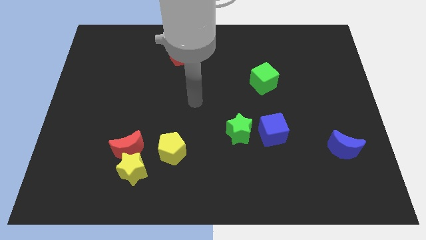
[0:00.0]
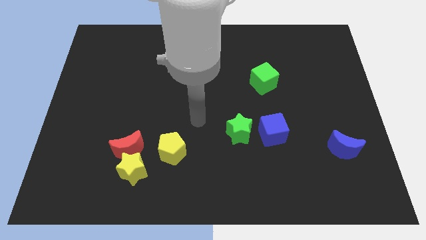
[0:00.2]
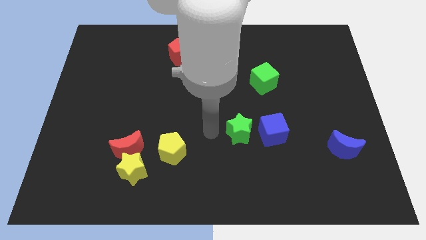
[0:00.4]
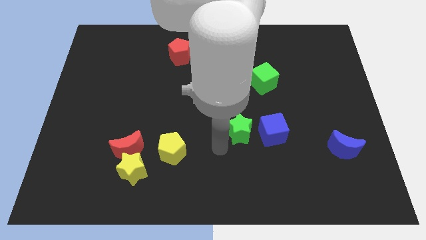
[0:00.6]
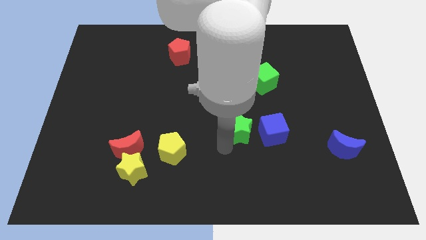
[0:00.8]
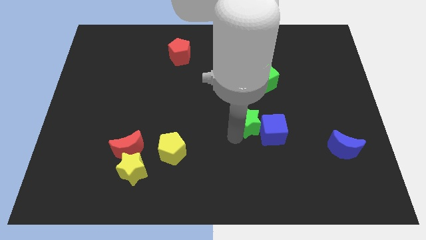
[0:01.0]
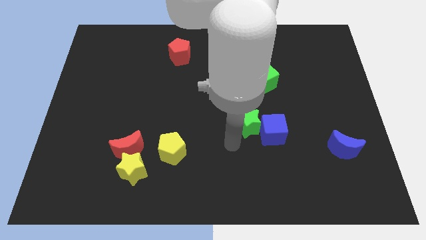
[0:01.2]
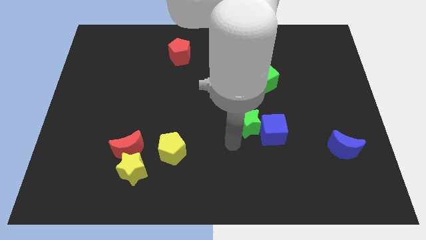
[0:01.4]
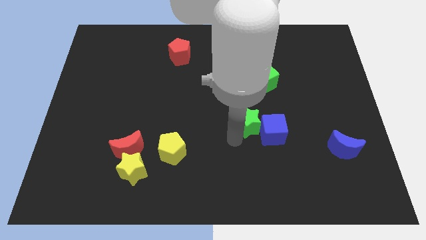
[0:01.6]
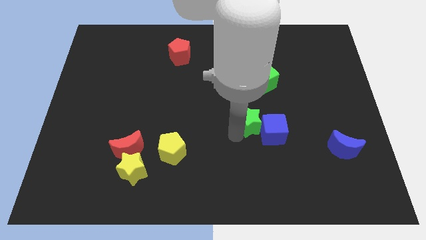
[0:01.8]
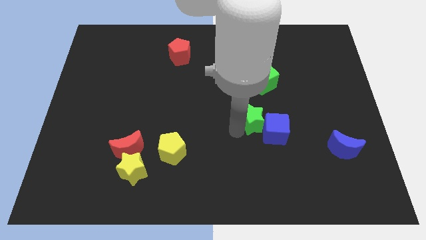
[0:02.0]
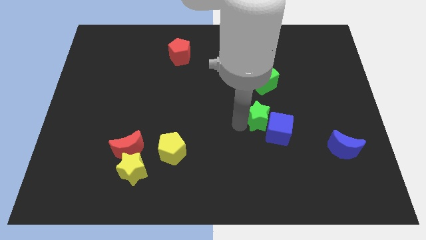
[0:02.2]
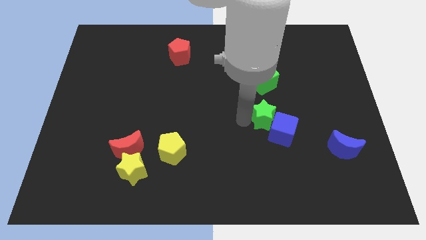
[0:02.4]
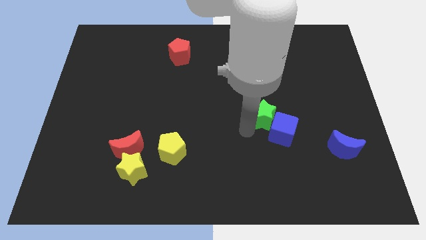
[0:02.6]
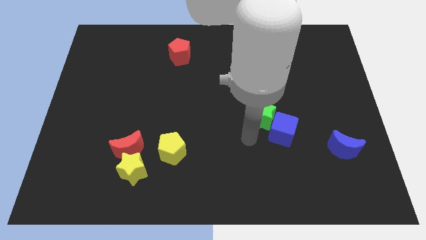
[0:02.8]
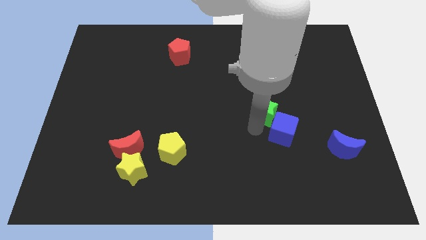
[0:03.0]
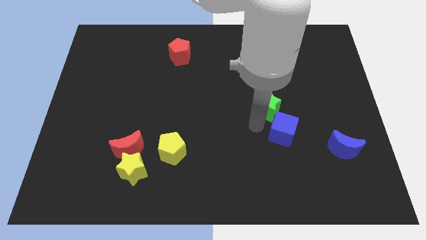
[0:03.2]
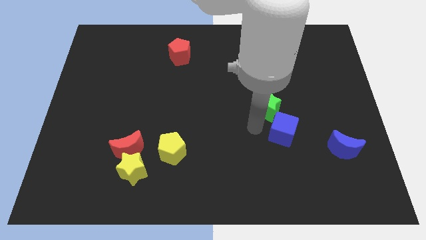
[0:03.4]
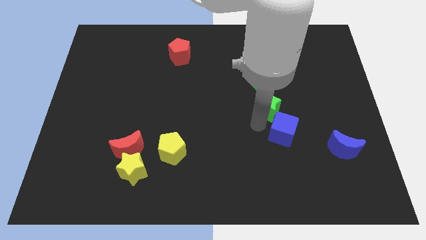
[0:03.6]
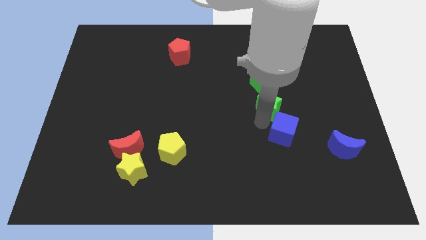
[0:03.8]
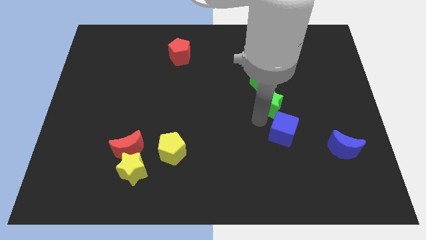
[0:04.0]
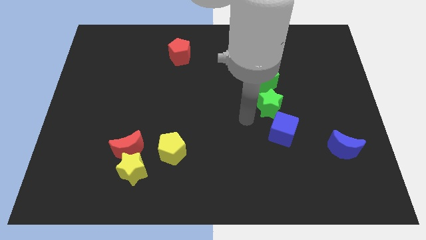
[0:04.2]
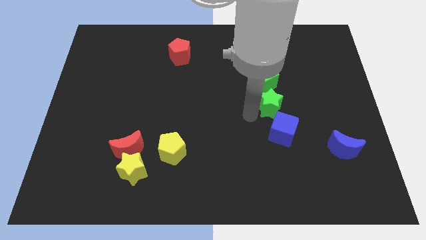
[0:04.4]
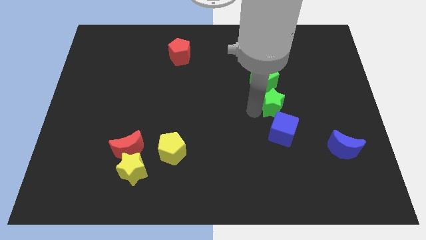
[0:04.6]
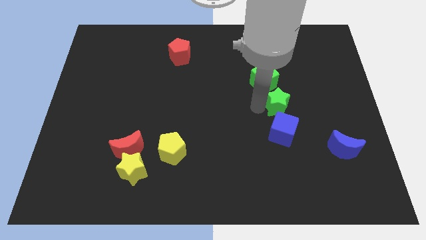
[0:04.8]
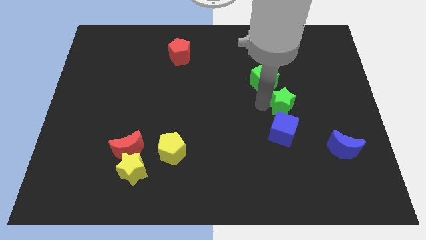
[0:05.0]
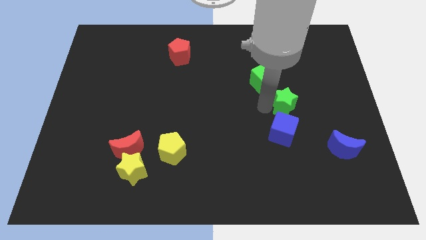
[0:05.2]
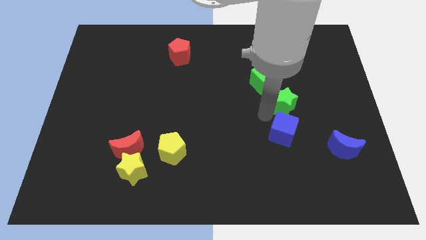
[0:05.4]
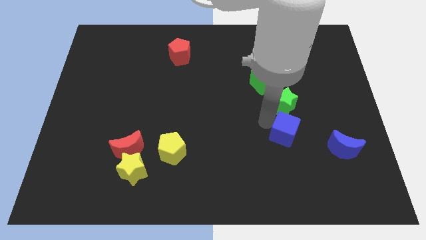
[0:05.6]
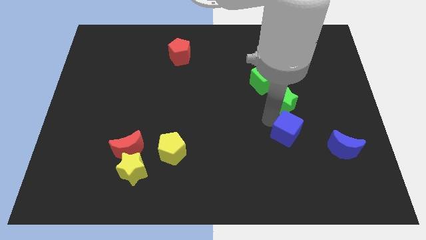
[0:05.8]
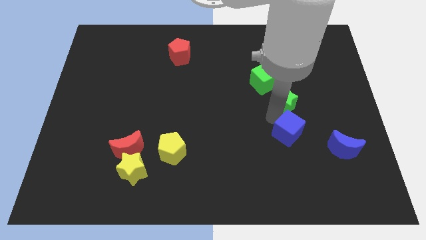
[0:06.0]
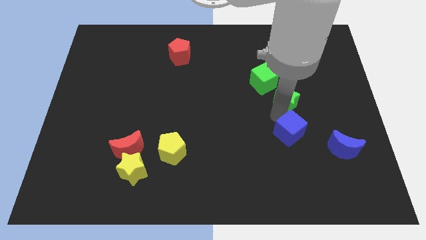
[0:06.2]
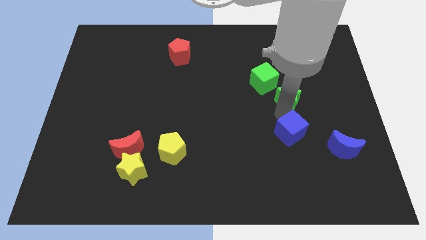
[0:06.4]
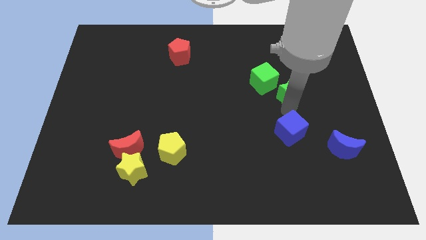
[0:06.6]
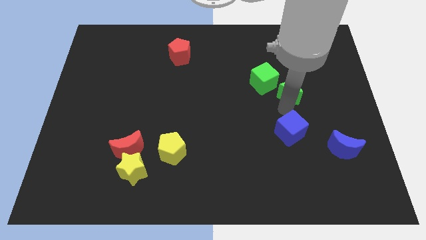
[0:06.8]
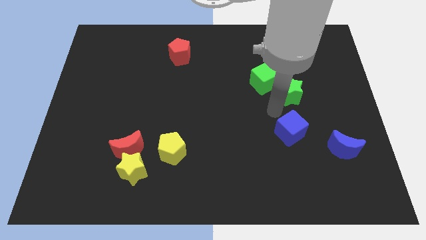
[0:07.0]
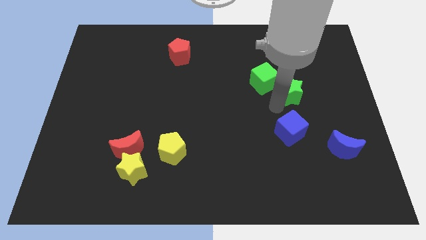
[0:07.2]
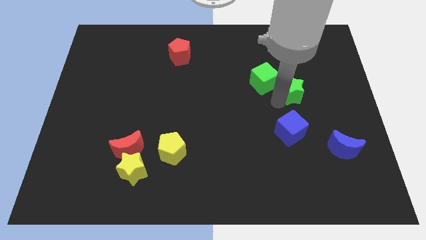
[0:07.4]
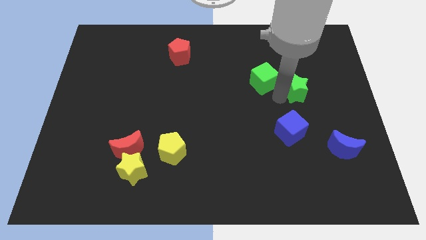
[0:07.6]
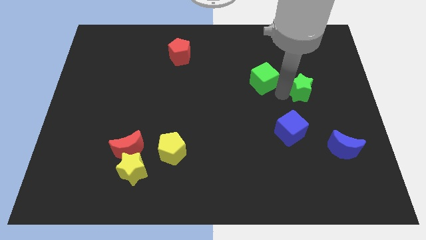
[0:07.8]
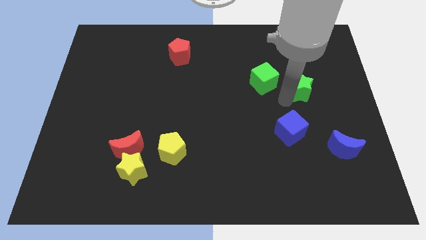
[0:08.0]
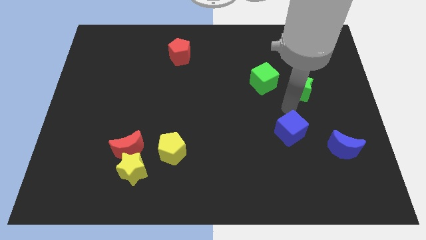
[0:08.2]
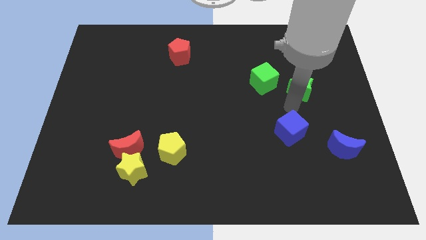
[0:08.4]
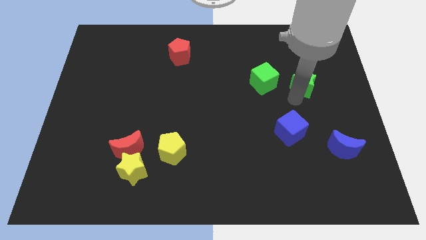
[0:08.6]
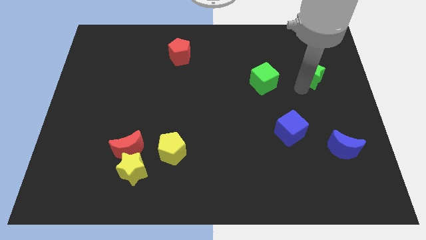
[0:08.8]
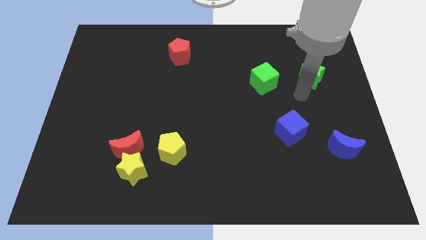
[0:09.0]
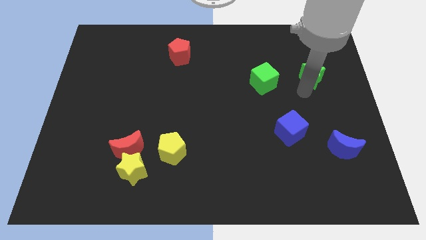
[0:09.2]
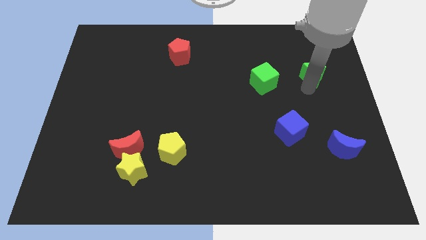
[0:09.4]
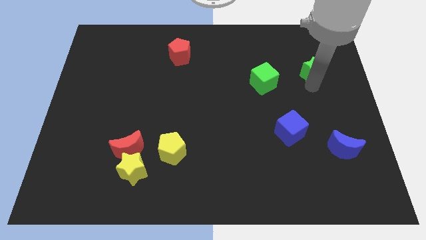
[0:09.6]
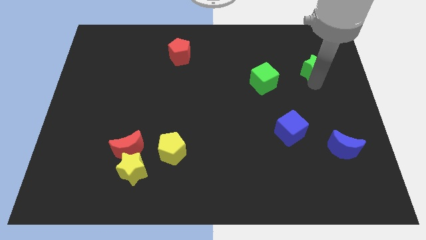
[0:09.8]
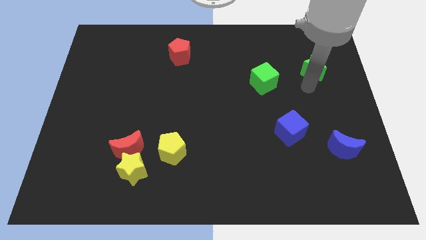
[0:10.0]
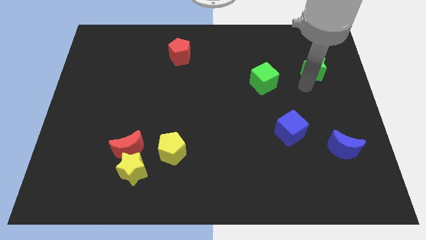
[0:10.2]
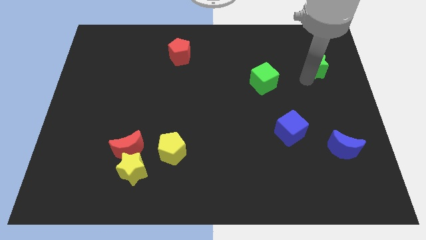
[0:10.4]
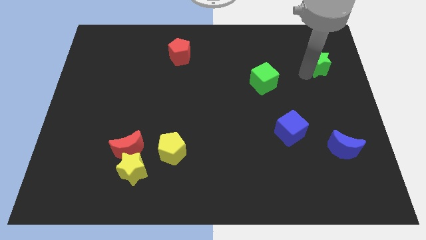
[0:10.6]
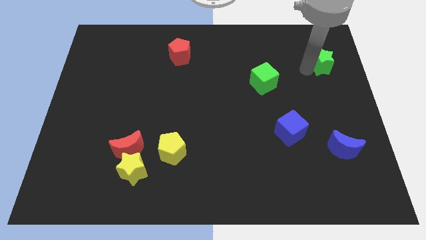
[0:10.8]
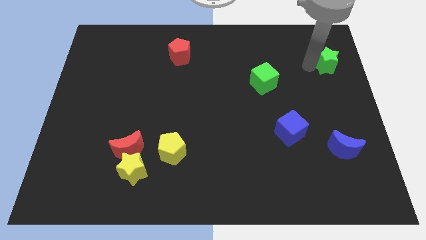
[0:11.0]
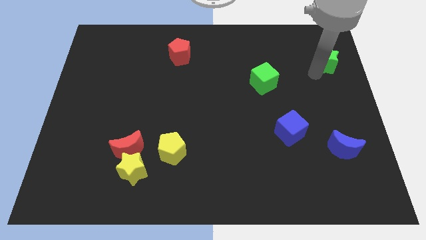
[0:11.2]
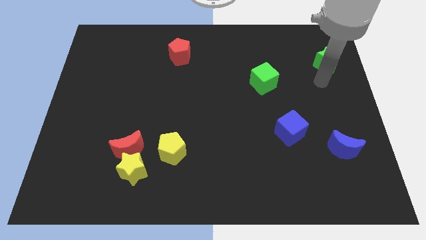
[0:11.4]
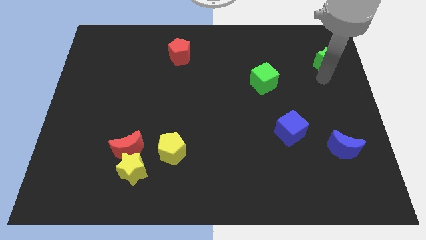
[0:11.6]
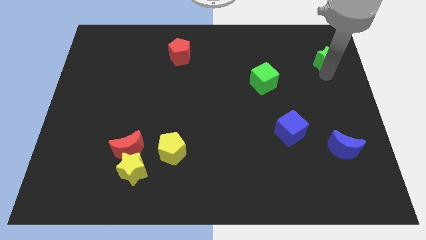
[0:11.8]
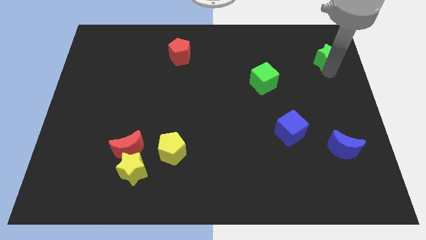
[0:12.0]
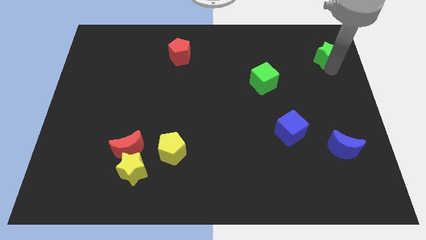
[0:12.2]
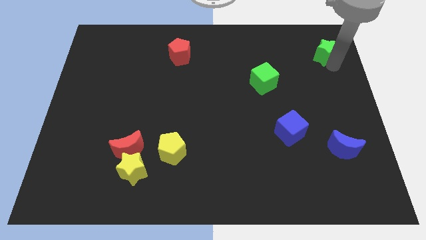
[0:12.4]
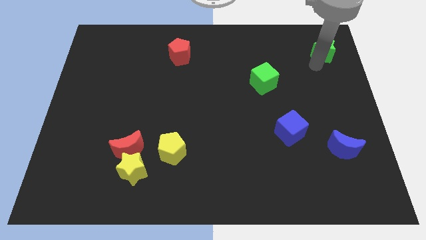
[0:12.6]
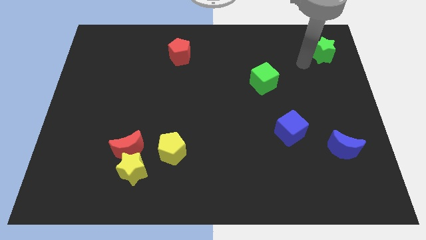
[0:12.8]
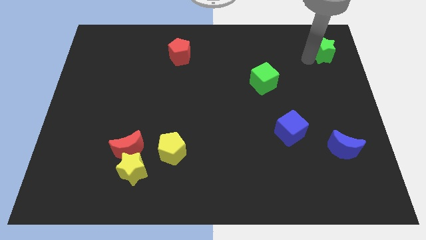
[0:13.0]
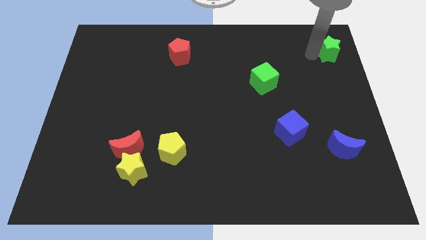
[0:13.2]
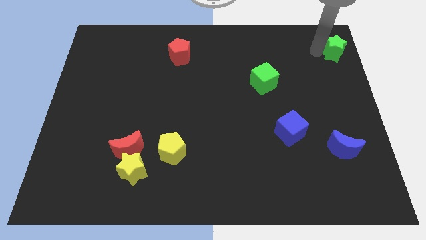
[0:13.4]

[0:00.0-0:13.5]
slide the green star to the top right corner

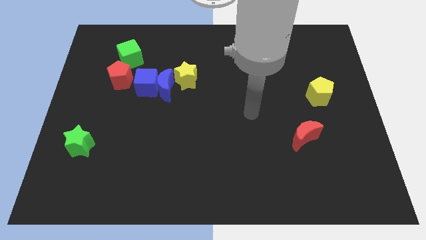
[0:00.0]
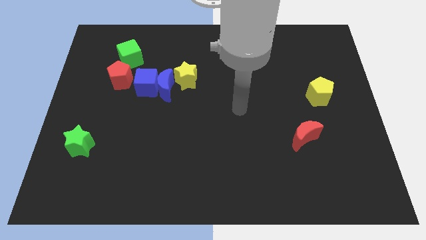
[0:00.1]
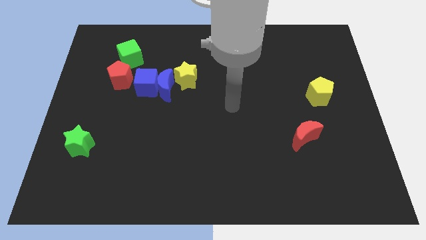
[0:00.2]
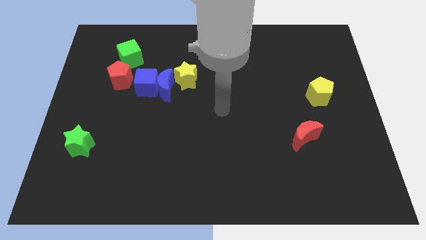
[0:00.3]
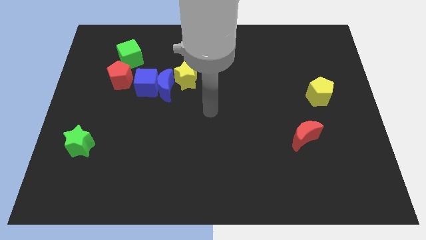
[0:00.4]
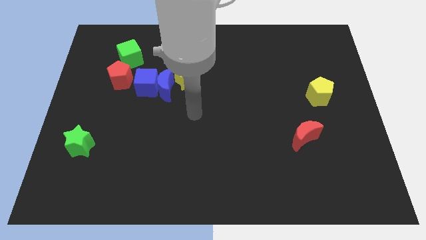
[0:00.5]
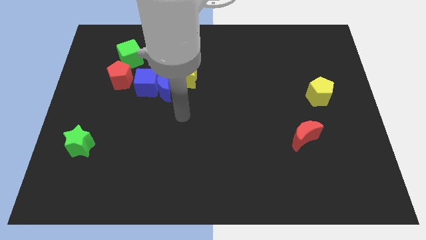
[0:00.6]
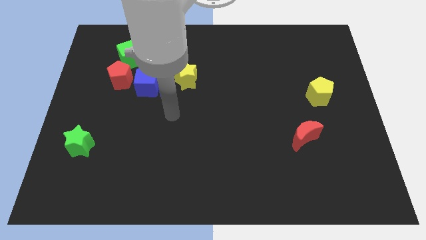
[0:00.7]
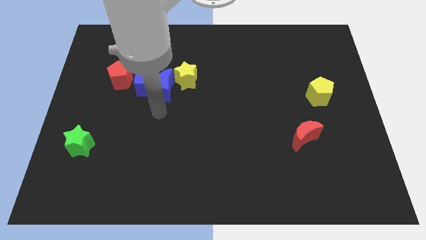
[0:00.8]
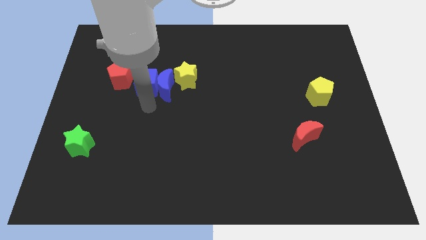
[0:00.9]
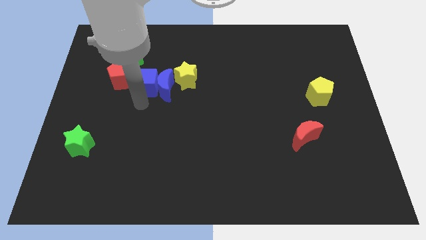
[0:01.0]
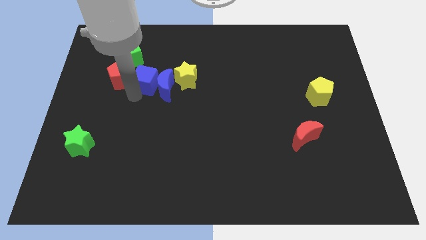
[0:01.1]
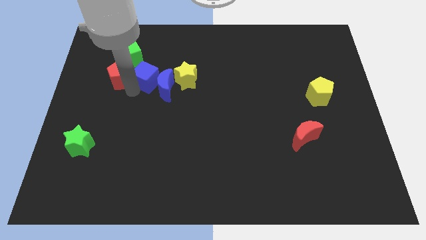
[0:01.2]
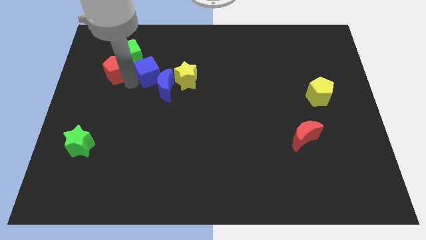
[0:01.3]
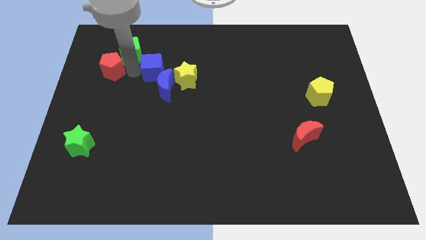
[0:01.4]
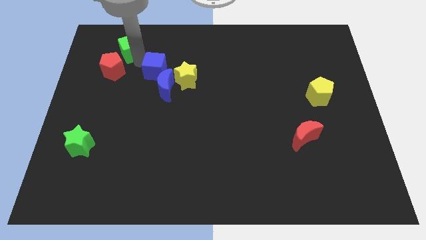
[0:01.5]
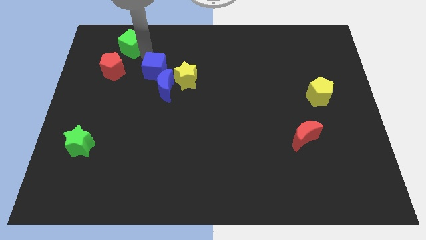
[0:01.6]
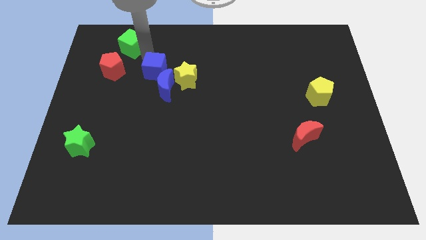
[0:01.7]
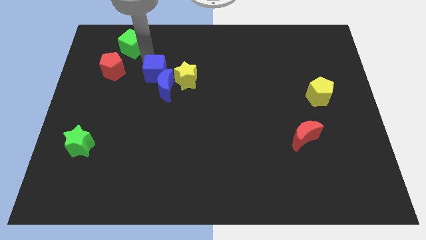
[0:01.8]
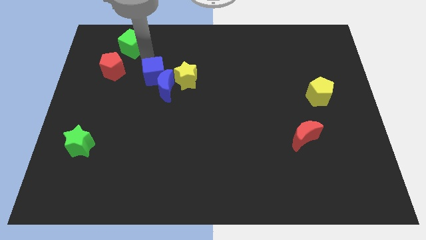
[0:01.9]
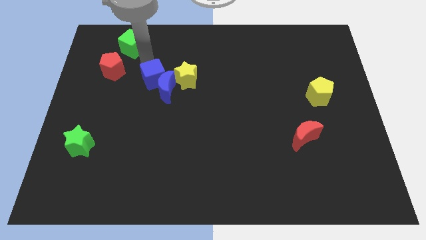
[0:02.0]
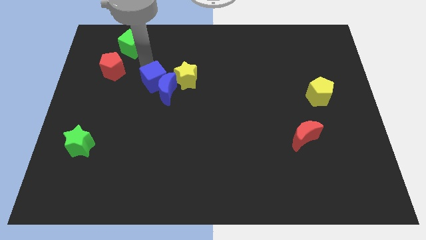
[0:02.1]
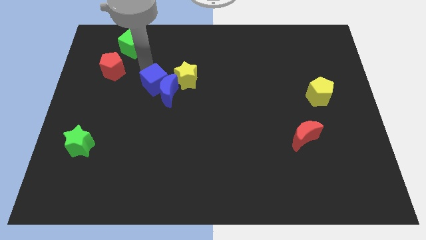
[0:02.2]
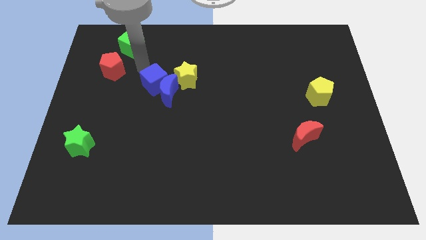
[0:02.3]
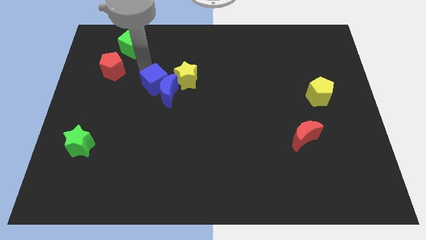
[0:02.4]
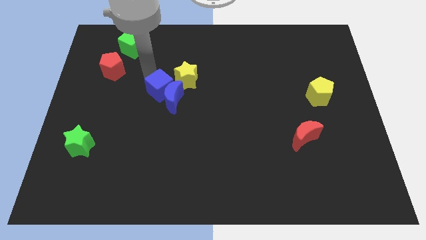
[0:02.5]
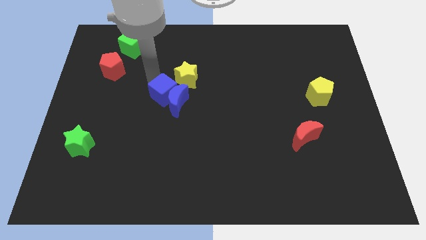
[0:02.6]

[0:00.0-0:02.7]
slide the blue cube to the center of the board
